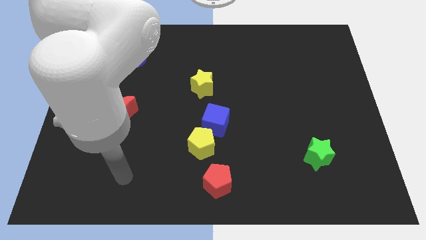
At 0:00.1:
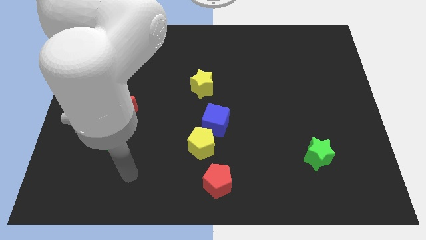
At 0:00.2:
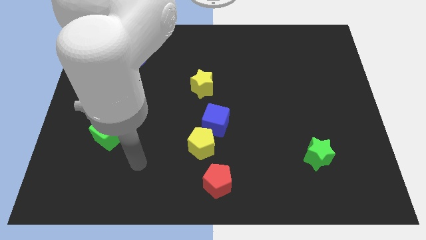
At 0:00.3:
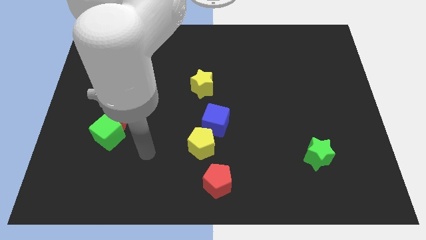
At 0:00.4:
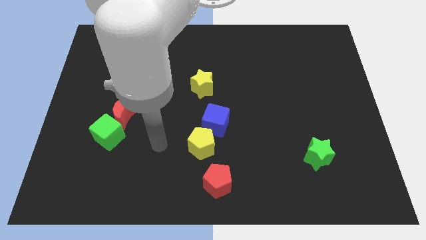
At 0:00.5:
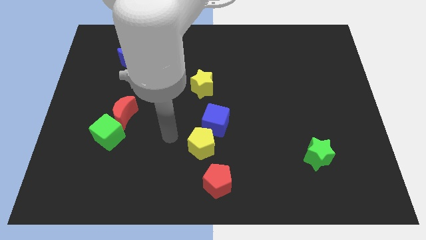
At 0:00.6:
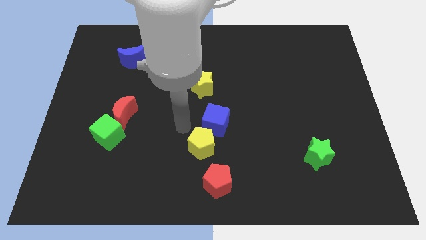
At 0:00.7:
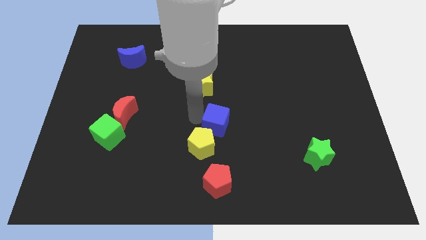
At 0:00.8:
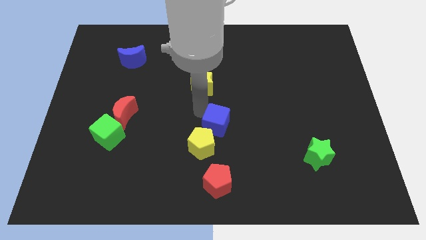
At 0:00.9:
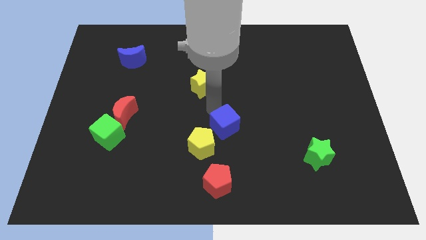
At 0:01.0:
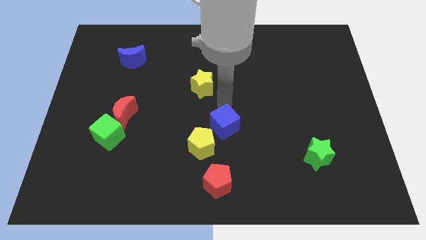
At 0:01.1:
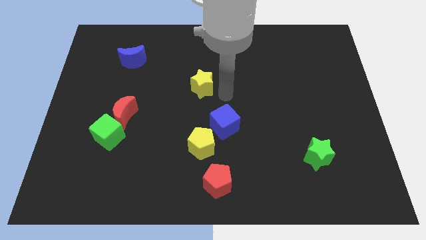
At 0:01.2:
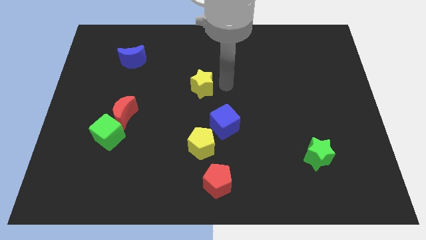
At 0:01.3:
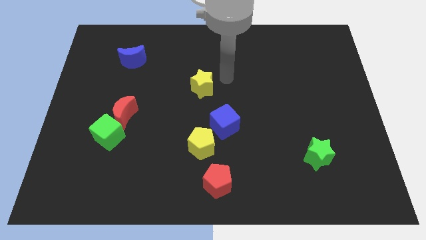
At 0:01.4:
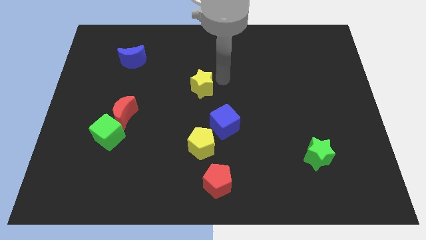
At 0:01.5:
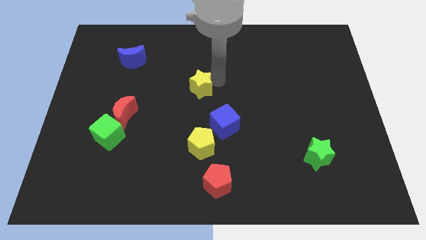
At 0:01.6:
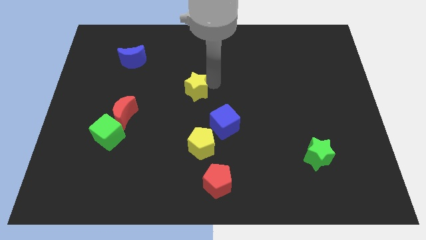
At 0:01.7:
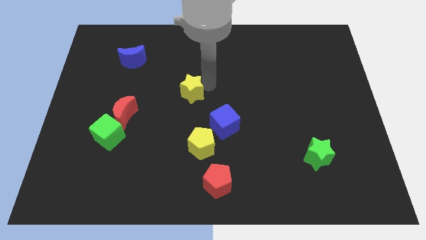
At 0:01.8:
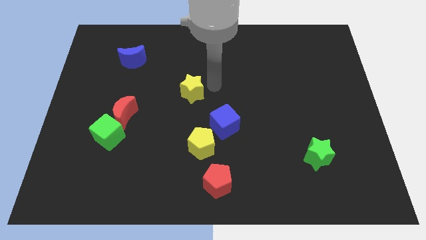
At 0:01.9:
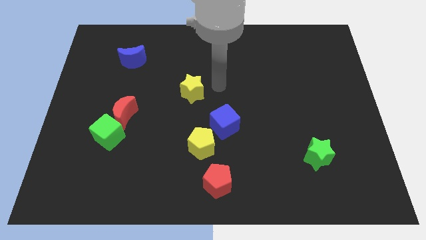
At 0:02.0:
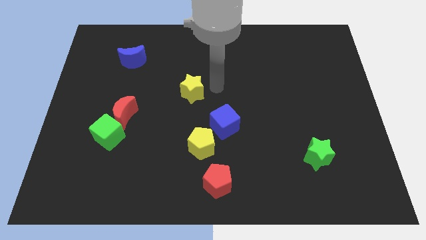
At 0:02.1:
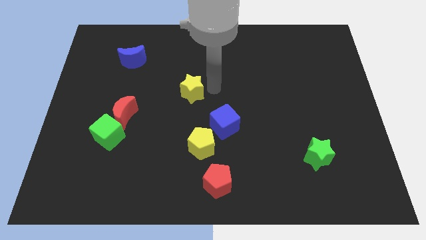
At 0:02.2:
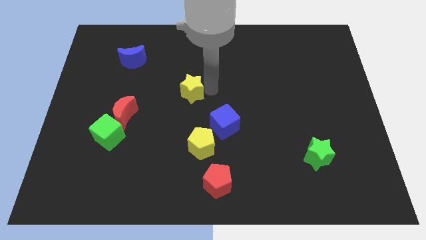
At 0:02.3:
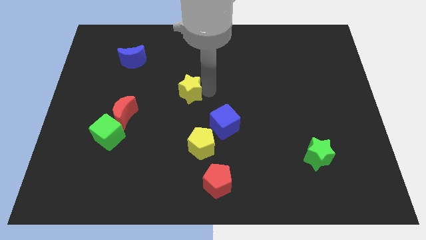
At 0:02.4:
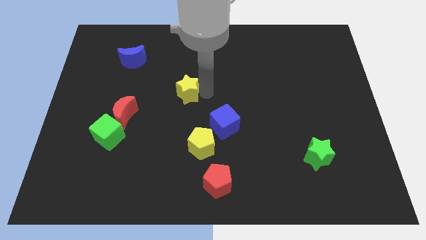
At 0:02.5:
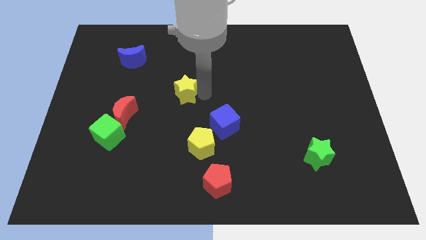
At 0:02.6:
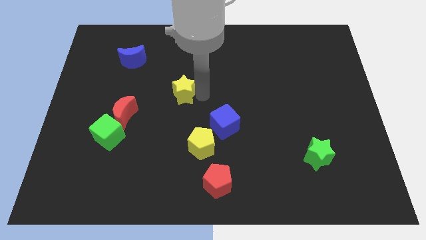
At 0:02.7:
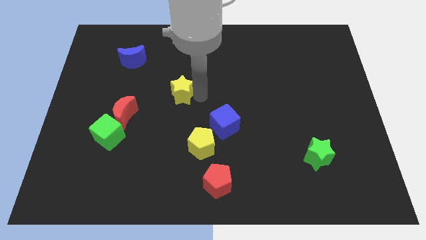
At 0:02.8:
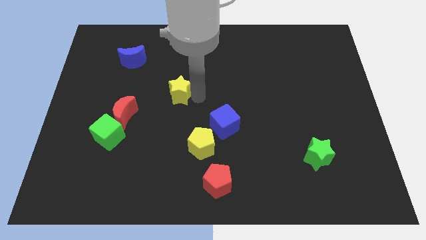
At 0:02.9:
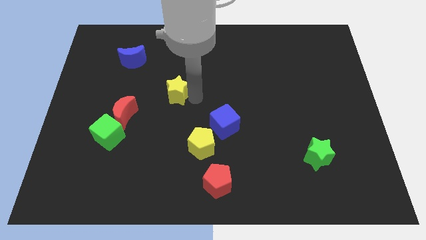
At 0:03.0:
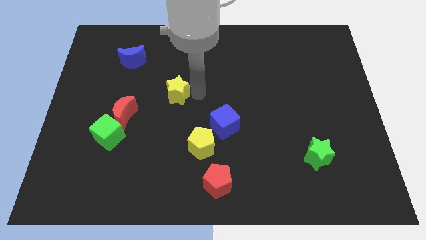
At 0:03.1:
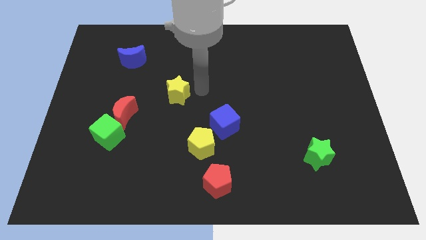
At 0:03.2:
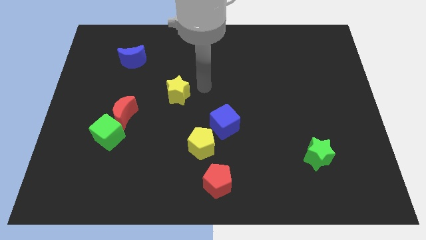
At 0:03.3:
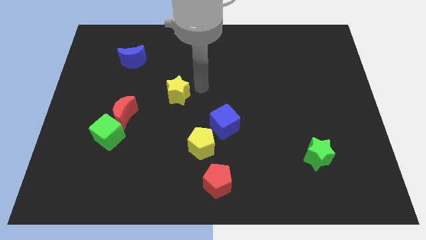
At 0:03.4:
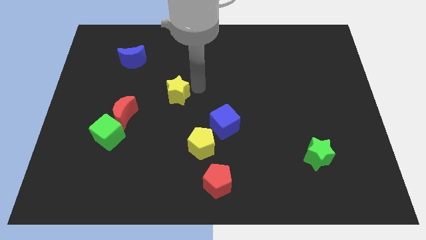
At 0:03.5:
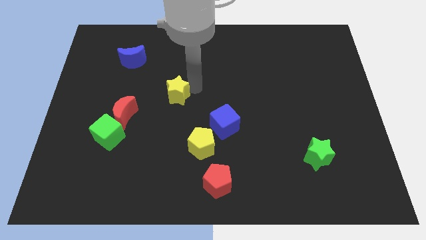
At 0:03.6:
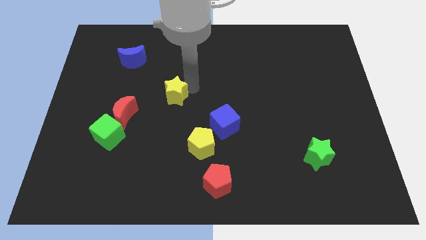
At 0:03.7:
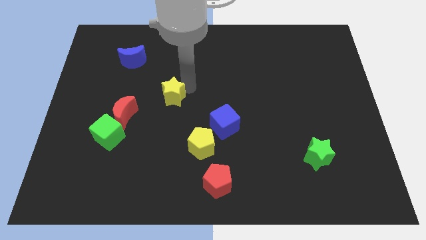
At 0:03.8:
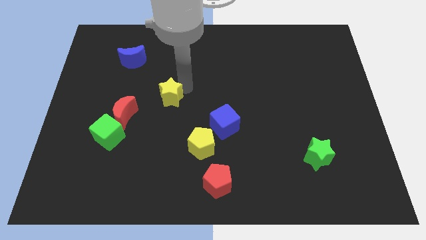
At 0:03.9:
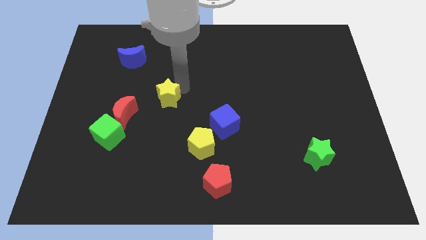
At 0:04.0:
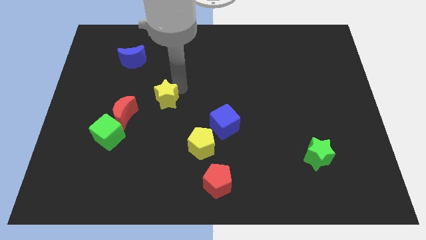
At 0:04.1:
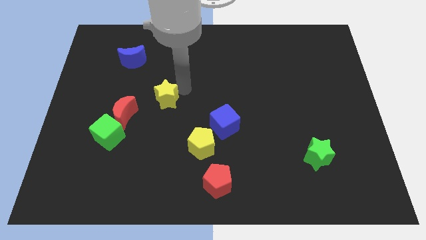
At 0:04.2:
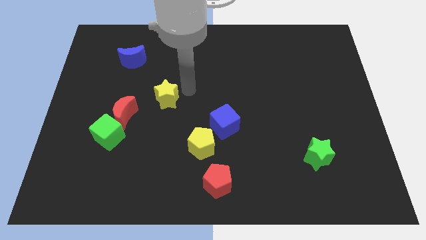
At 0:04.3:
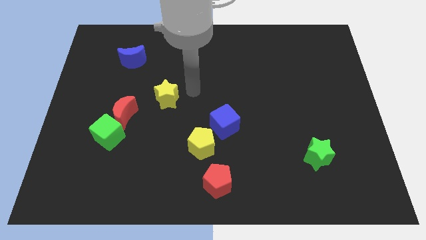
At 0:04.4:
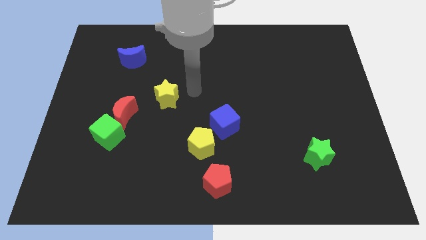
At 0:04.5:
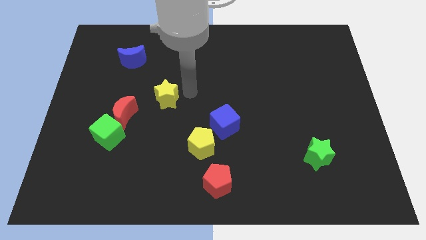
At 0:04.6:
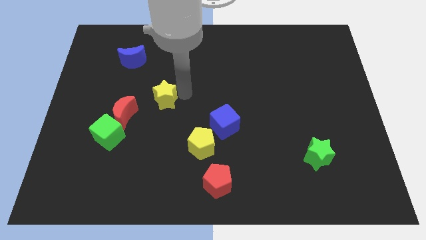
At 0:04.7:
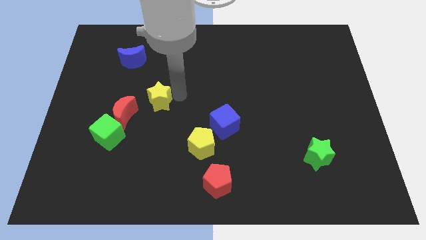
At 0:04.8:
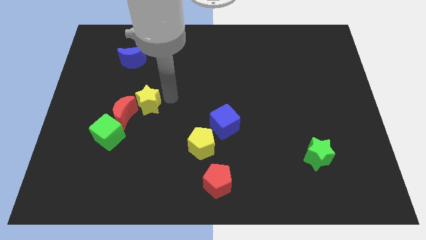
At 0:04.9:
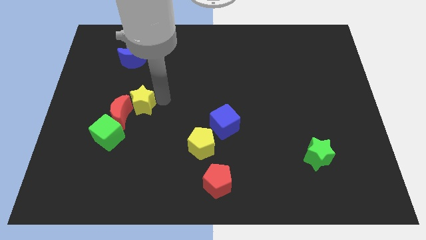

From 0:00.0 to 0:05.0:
put the yellow star next to the red moon

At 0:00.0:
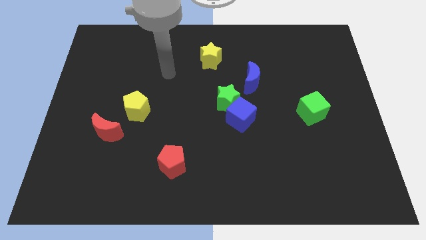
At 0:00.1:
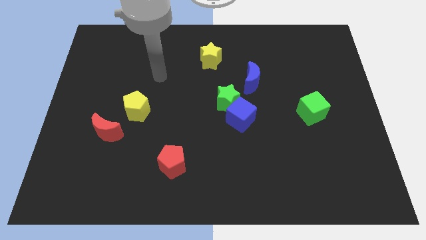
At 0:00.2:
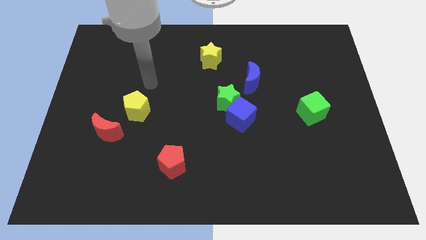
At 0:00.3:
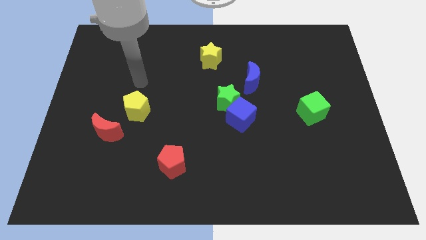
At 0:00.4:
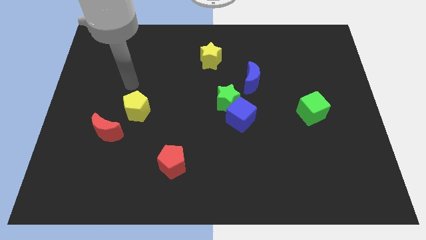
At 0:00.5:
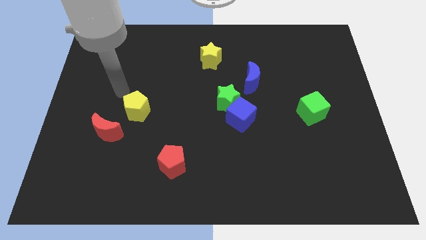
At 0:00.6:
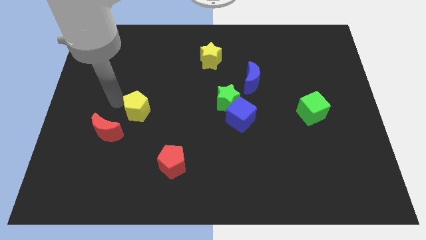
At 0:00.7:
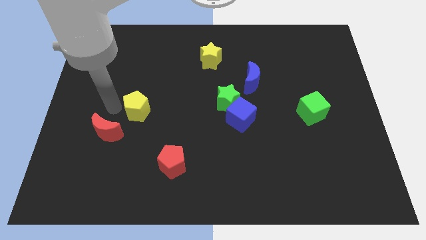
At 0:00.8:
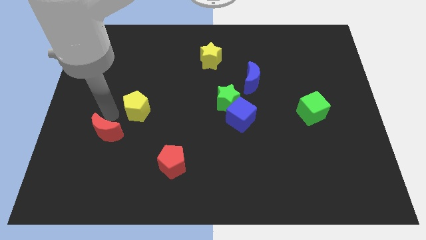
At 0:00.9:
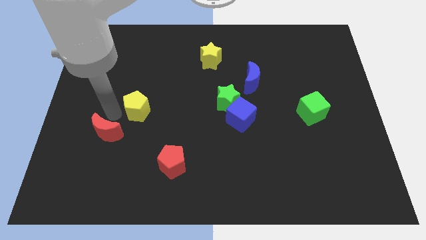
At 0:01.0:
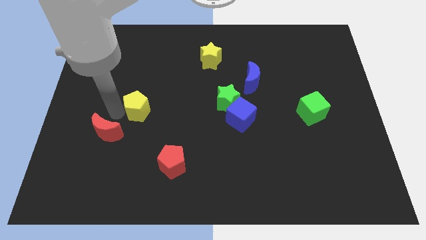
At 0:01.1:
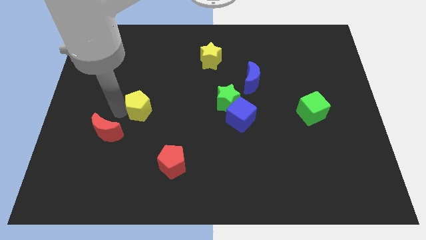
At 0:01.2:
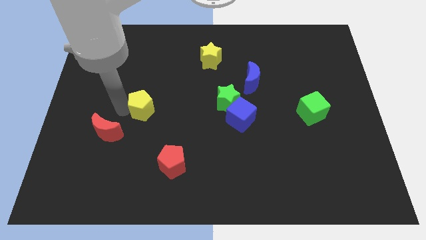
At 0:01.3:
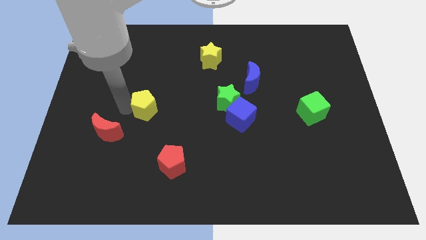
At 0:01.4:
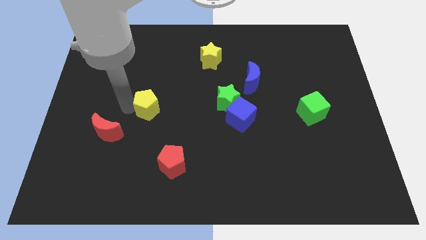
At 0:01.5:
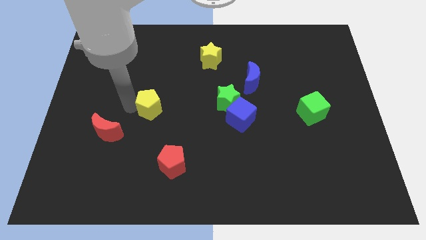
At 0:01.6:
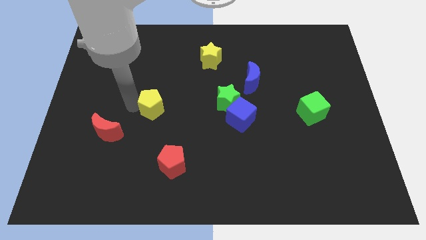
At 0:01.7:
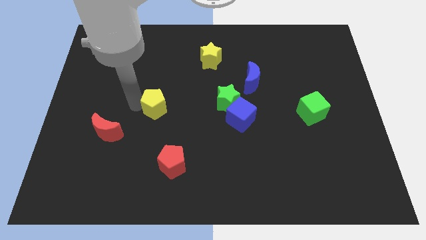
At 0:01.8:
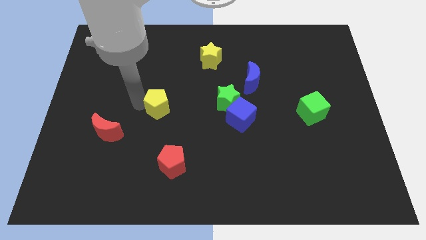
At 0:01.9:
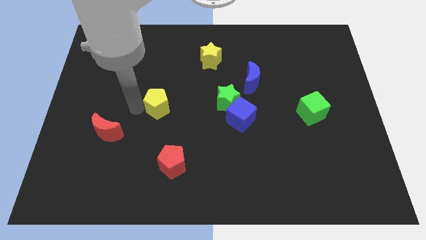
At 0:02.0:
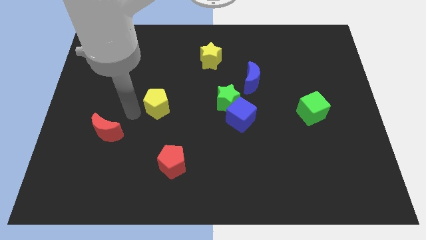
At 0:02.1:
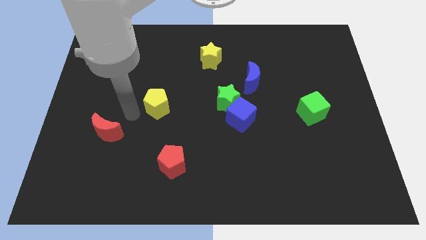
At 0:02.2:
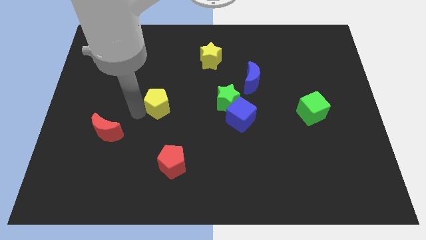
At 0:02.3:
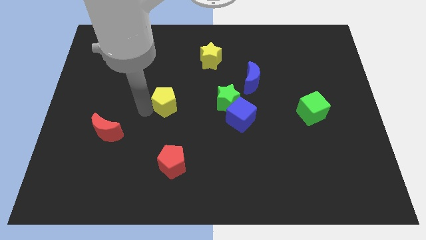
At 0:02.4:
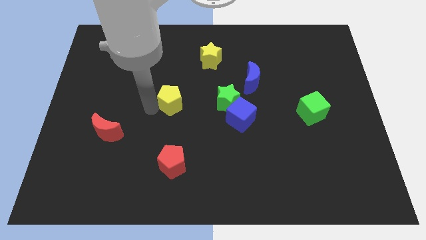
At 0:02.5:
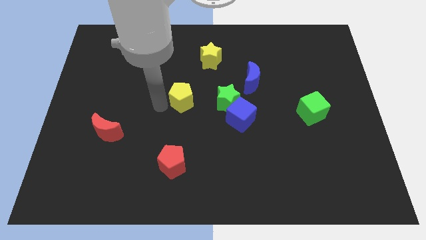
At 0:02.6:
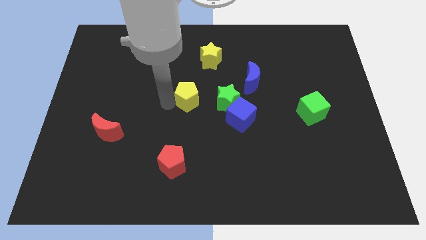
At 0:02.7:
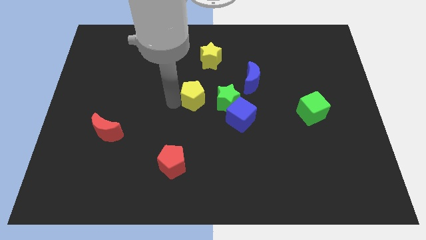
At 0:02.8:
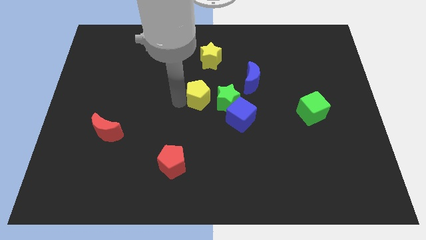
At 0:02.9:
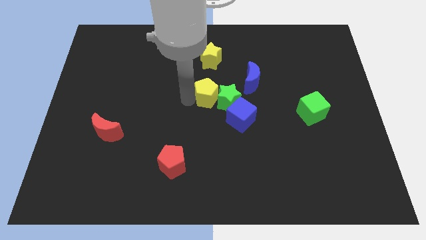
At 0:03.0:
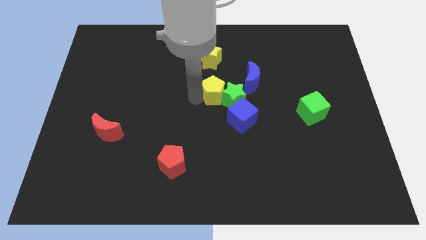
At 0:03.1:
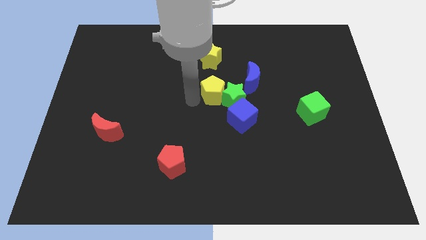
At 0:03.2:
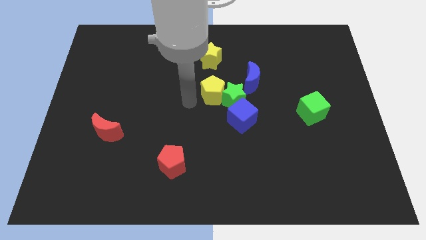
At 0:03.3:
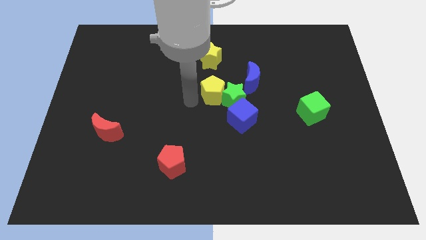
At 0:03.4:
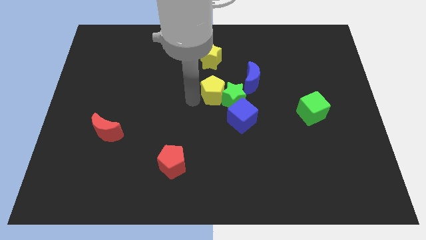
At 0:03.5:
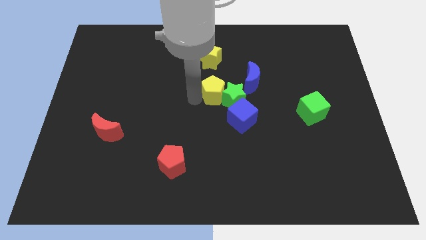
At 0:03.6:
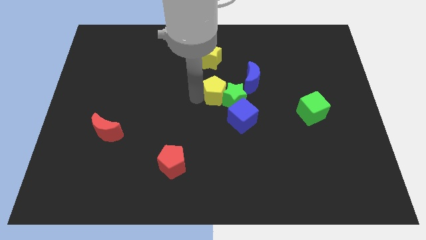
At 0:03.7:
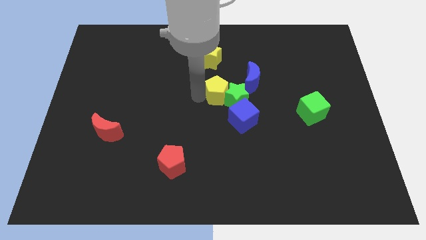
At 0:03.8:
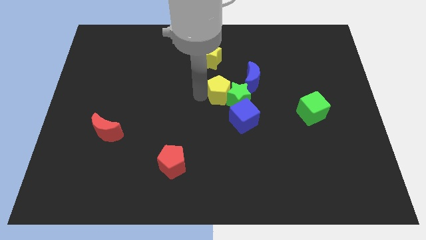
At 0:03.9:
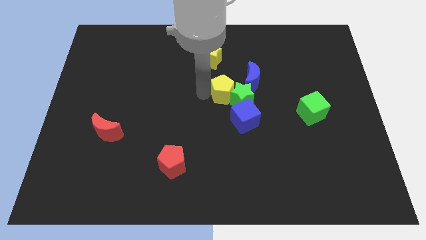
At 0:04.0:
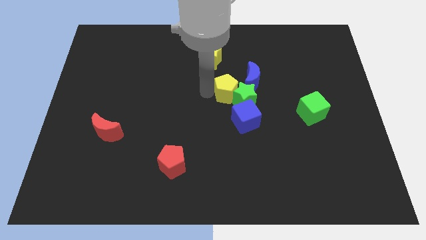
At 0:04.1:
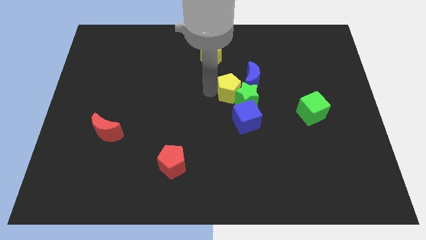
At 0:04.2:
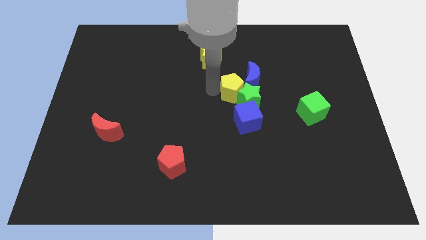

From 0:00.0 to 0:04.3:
slide the yellow pentagon close to the blue moon
